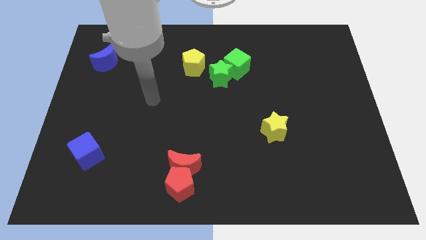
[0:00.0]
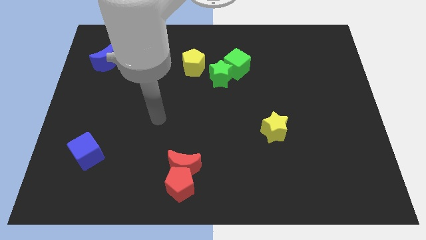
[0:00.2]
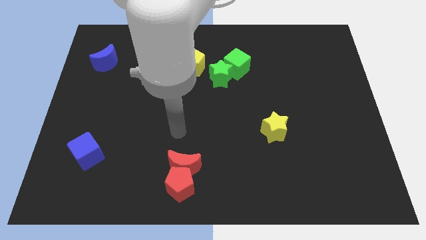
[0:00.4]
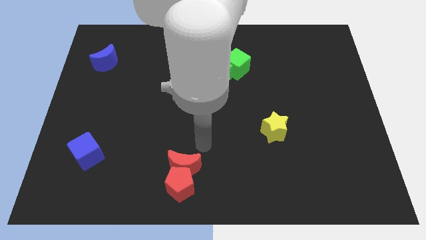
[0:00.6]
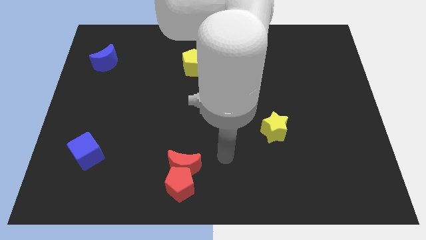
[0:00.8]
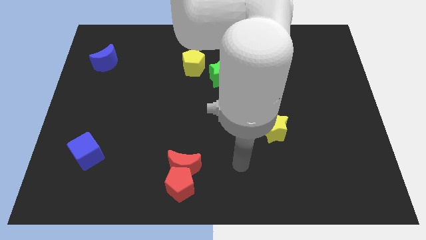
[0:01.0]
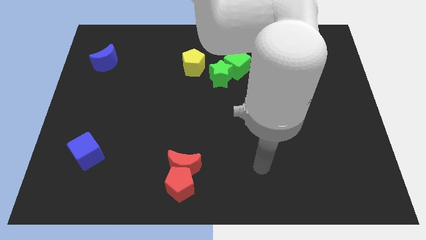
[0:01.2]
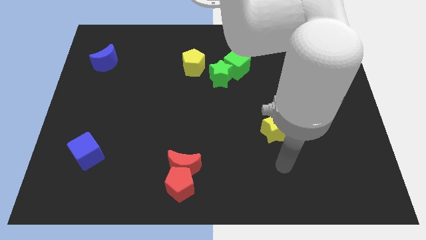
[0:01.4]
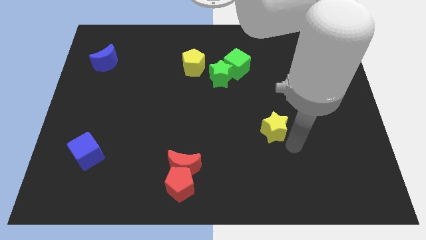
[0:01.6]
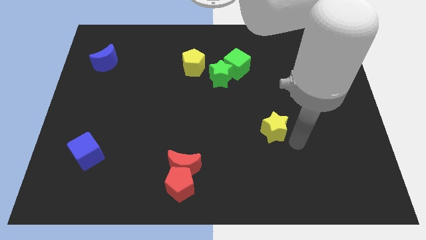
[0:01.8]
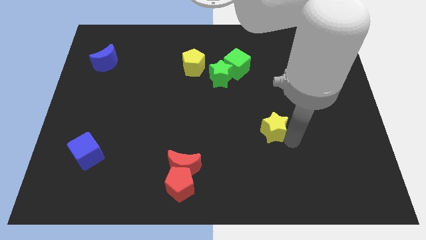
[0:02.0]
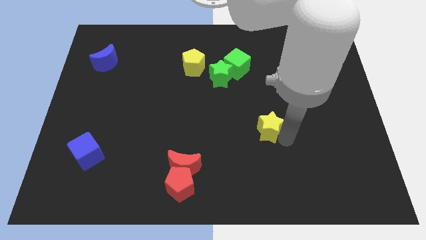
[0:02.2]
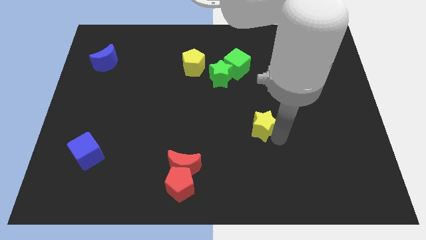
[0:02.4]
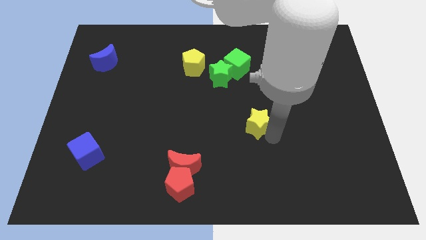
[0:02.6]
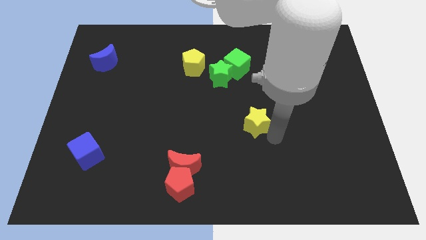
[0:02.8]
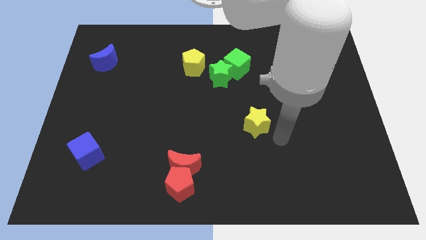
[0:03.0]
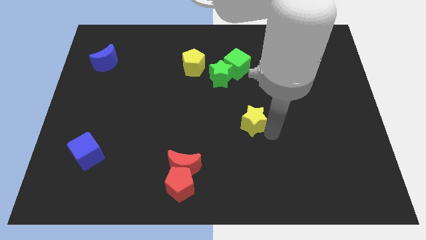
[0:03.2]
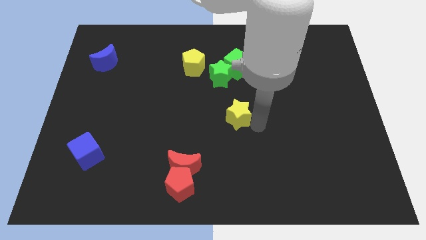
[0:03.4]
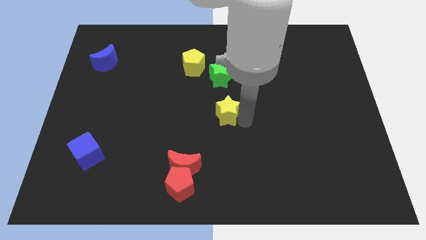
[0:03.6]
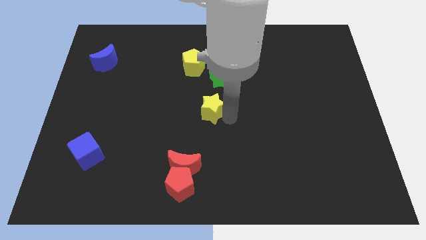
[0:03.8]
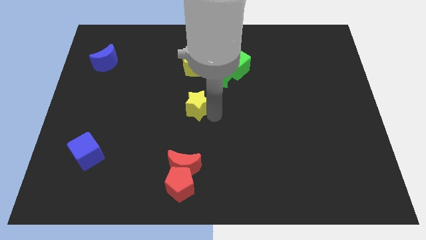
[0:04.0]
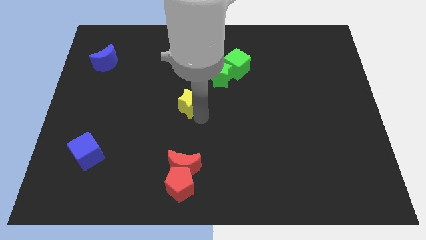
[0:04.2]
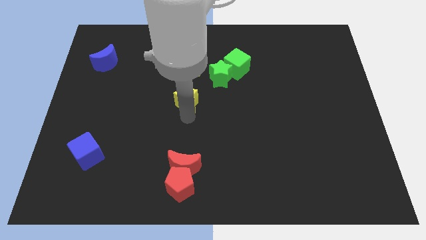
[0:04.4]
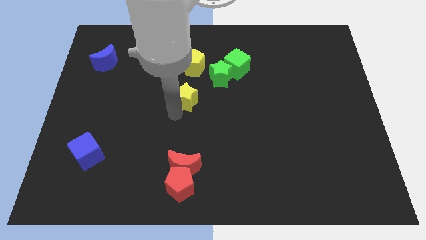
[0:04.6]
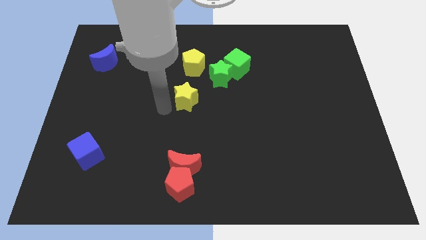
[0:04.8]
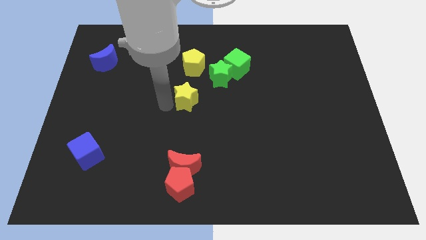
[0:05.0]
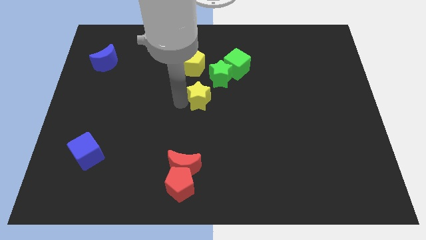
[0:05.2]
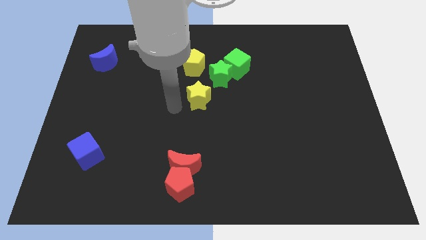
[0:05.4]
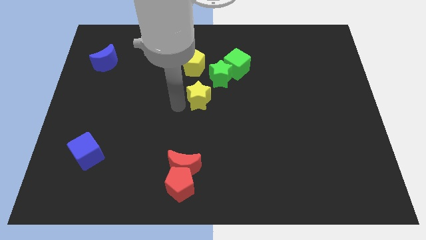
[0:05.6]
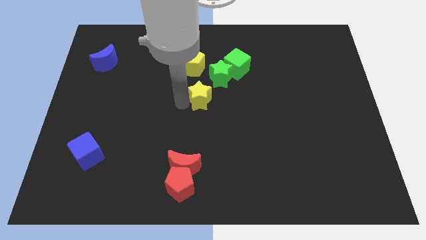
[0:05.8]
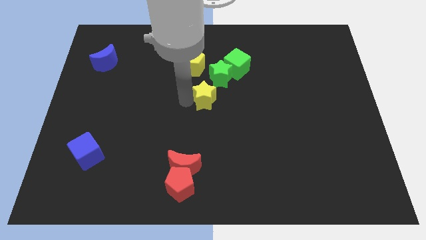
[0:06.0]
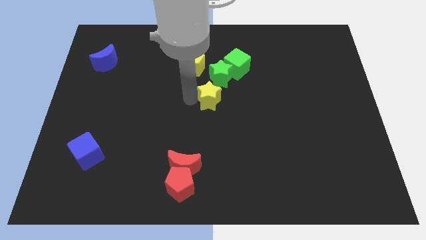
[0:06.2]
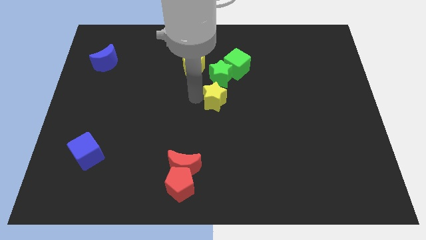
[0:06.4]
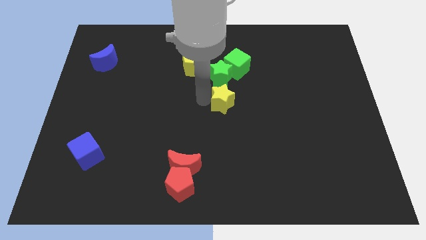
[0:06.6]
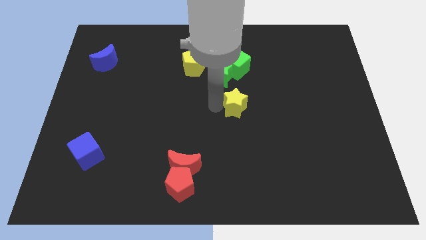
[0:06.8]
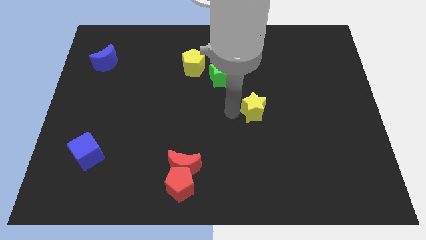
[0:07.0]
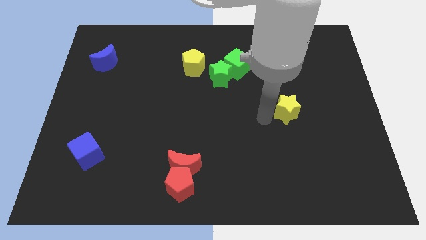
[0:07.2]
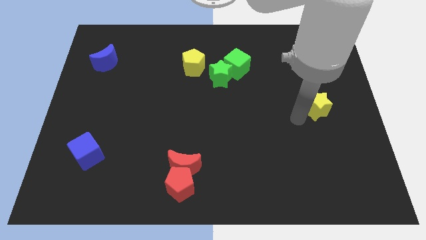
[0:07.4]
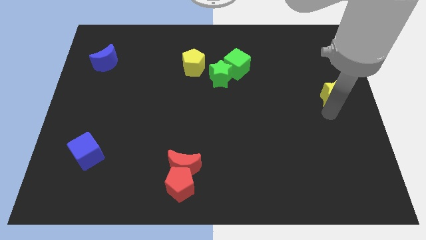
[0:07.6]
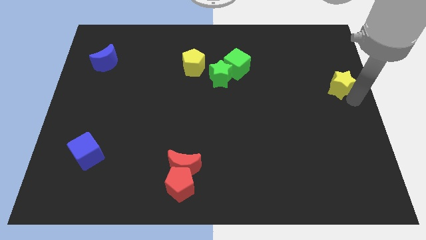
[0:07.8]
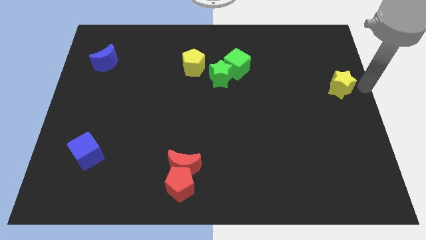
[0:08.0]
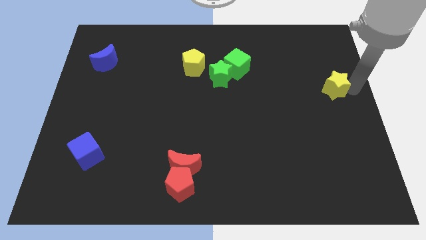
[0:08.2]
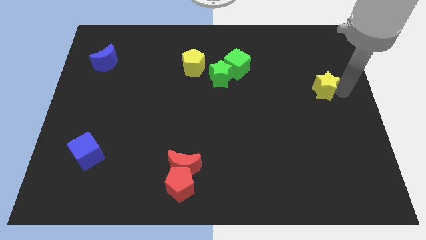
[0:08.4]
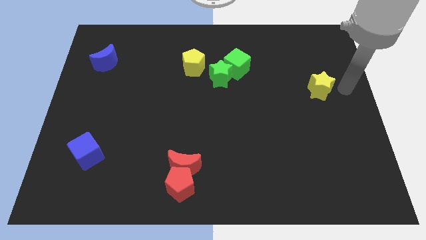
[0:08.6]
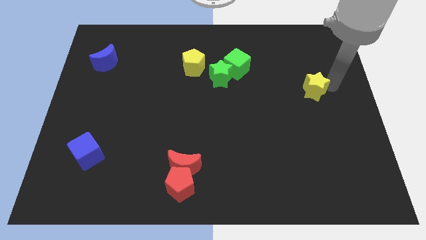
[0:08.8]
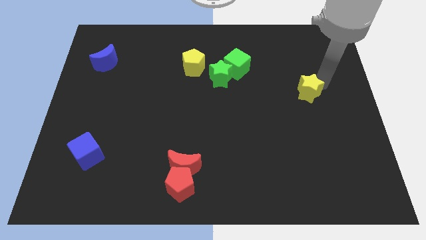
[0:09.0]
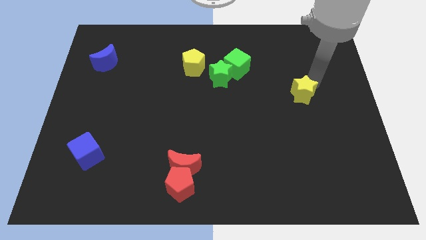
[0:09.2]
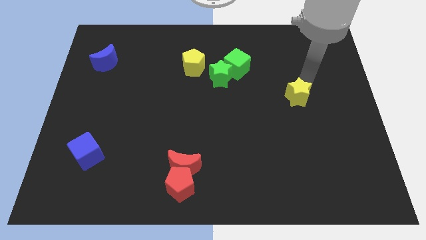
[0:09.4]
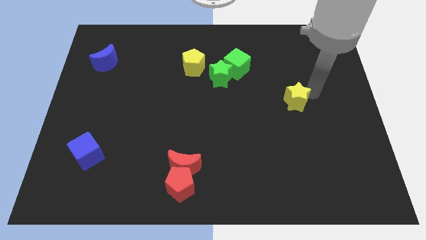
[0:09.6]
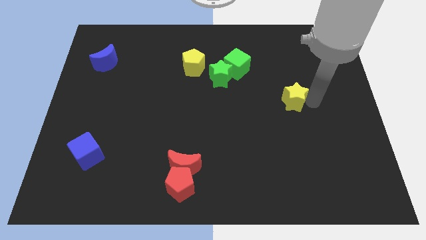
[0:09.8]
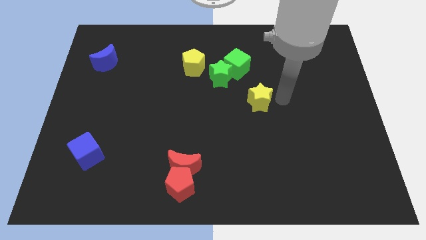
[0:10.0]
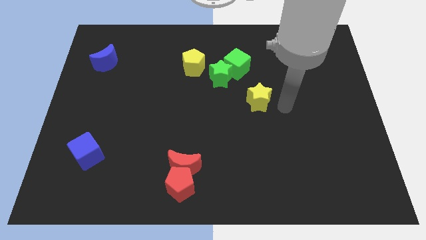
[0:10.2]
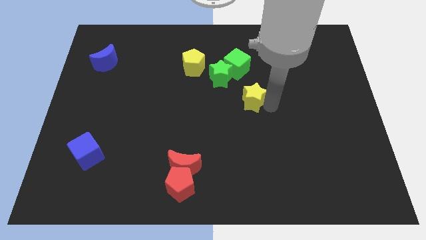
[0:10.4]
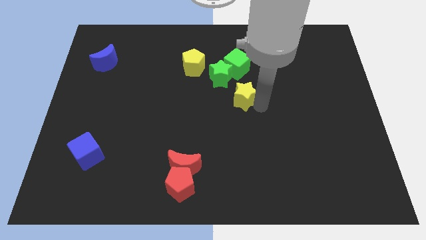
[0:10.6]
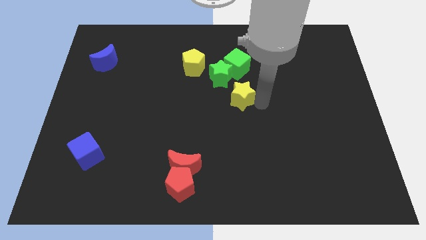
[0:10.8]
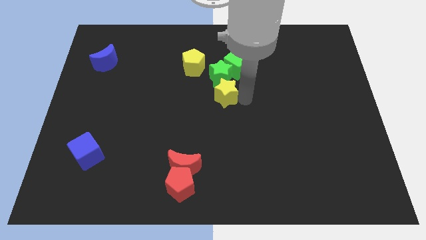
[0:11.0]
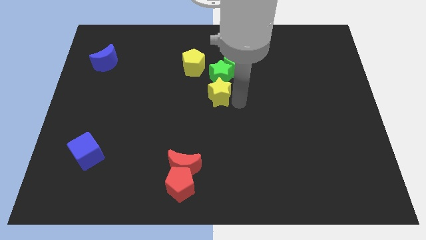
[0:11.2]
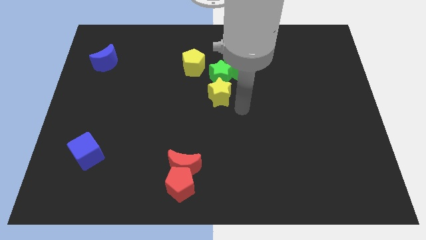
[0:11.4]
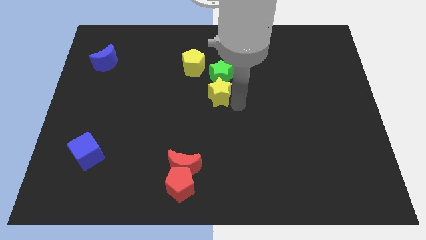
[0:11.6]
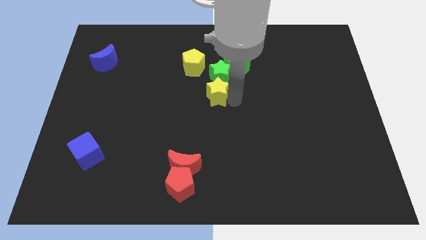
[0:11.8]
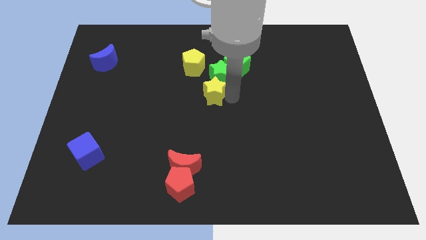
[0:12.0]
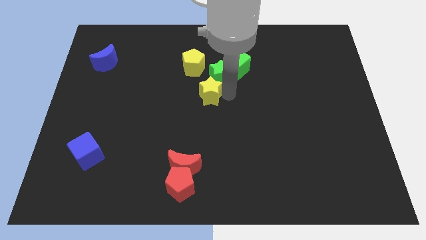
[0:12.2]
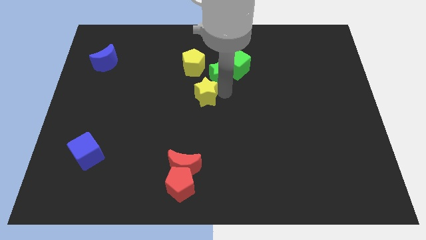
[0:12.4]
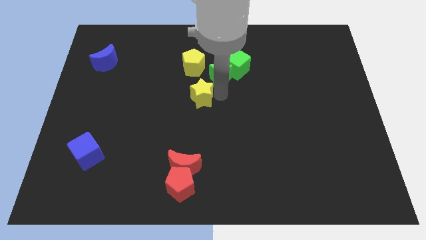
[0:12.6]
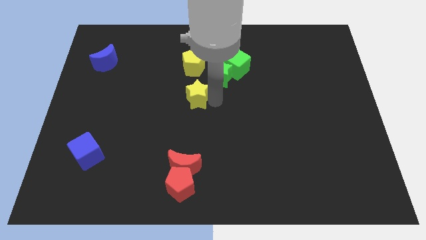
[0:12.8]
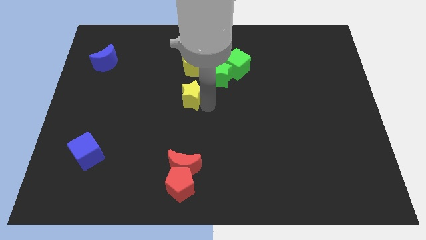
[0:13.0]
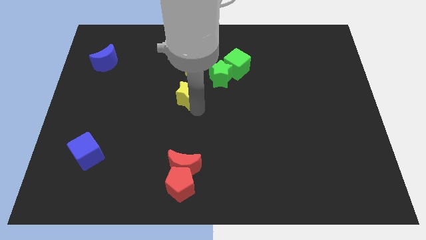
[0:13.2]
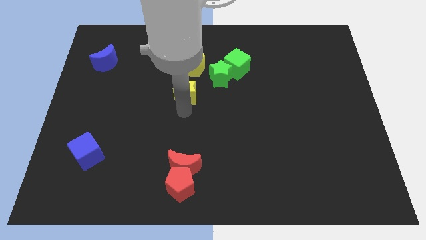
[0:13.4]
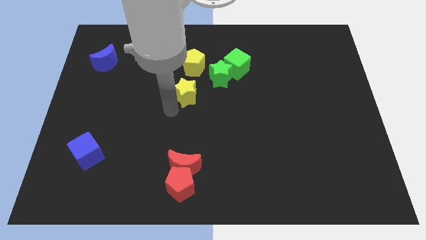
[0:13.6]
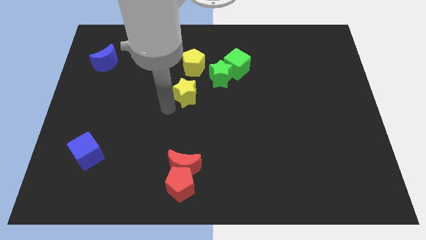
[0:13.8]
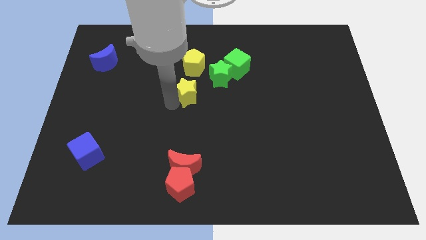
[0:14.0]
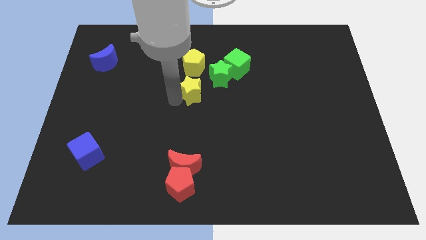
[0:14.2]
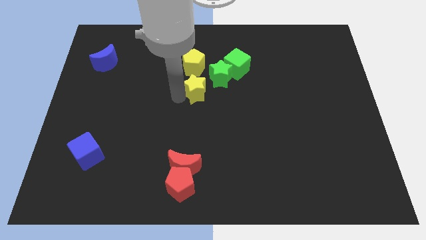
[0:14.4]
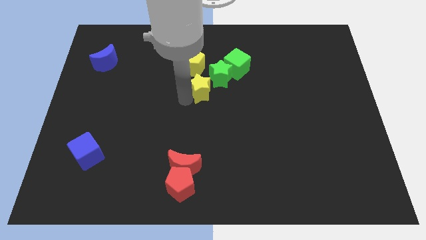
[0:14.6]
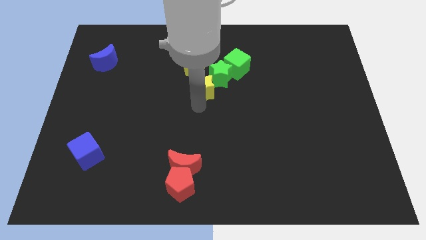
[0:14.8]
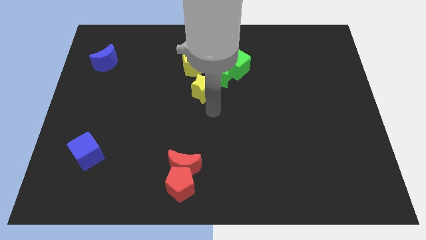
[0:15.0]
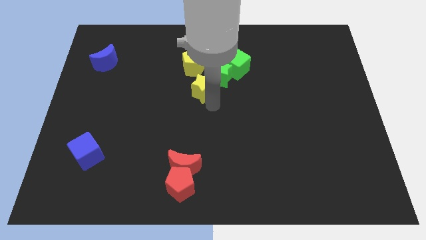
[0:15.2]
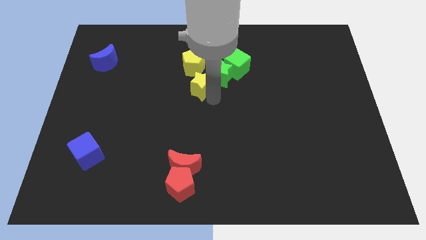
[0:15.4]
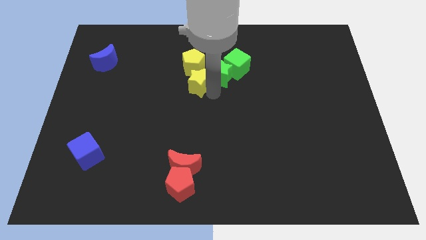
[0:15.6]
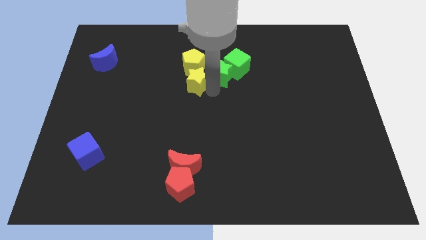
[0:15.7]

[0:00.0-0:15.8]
push the yellow star next to the yellow pentagon
